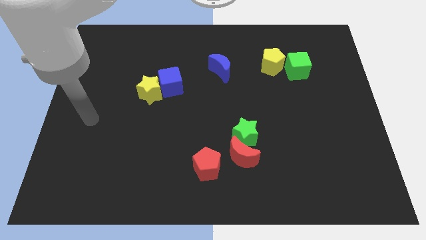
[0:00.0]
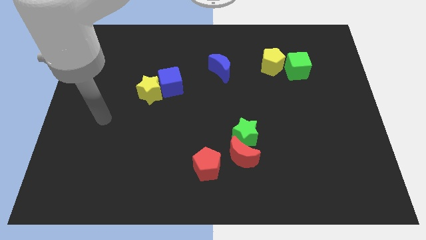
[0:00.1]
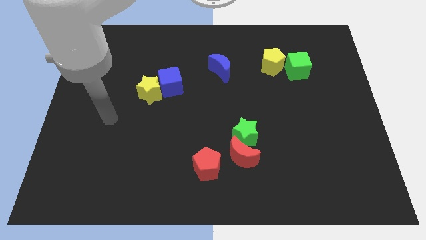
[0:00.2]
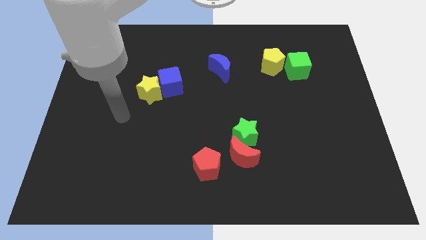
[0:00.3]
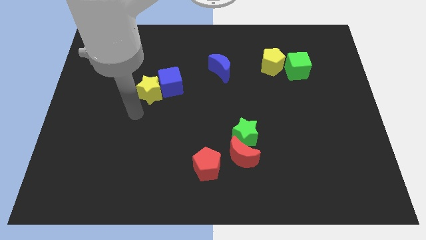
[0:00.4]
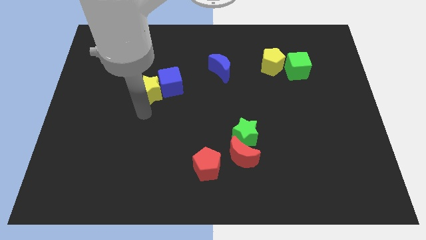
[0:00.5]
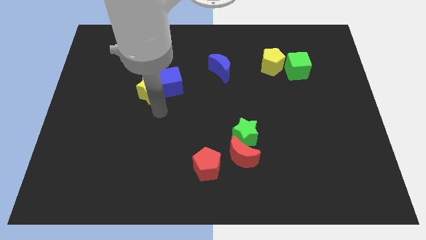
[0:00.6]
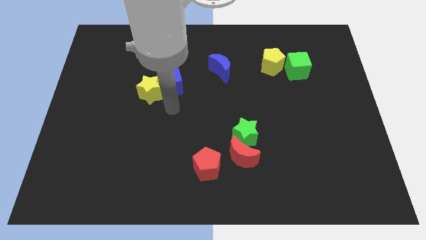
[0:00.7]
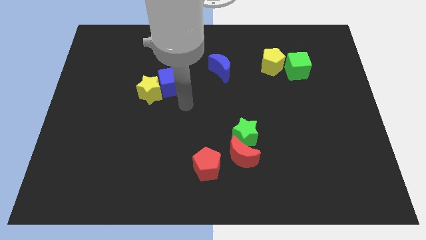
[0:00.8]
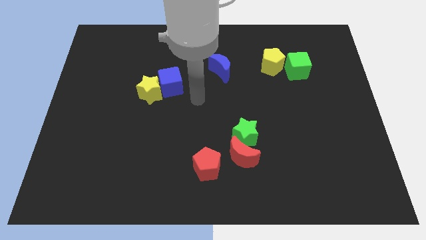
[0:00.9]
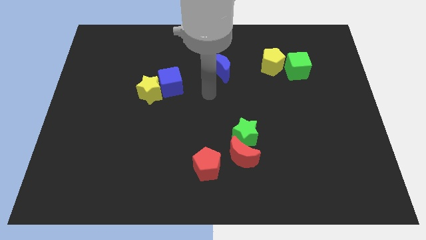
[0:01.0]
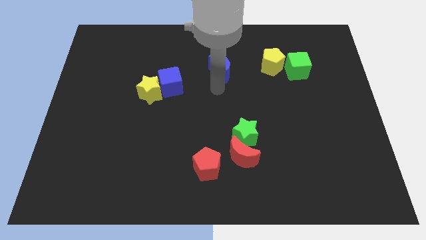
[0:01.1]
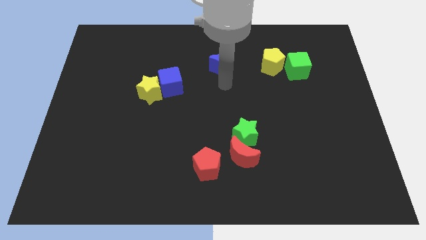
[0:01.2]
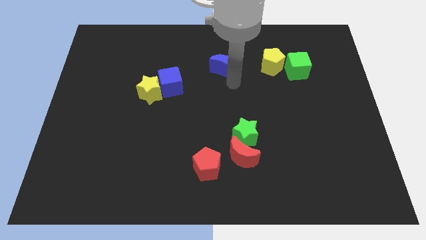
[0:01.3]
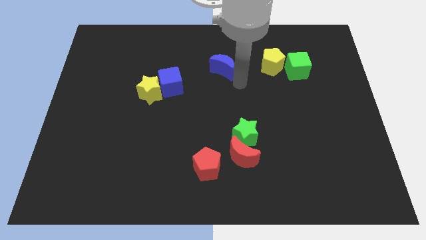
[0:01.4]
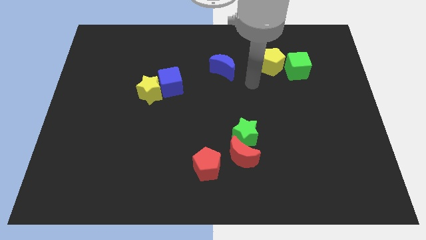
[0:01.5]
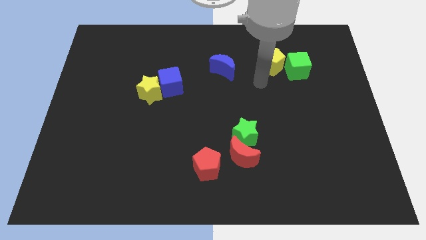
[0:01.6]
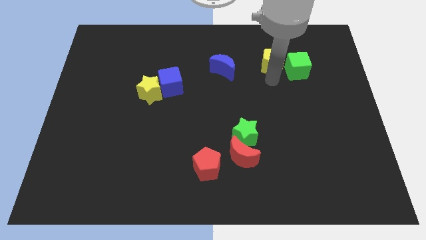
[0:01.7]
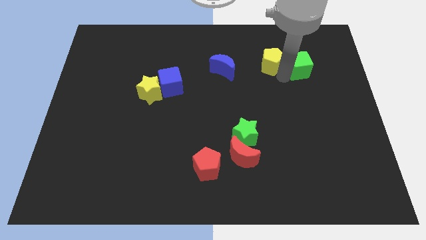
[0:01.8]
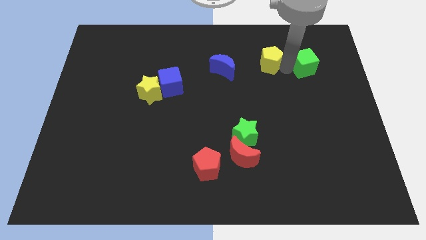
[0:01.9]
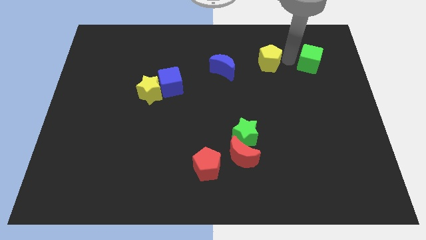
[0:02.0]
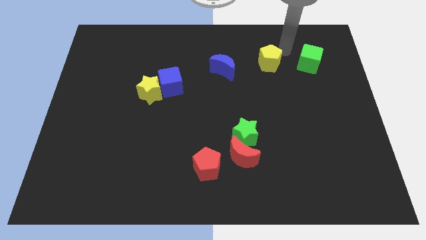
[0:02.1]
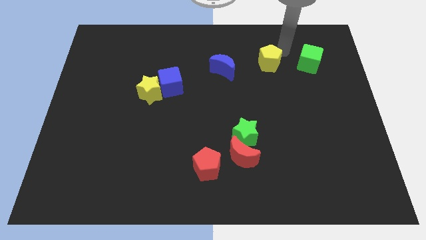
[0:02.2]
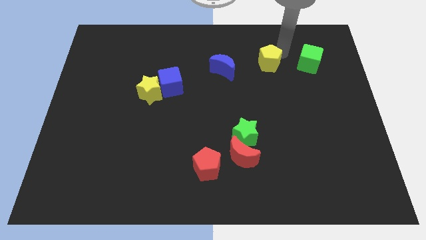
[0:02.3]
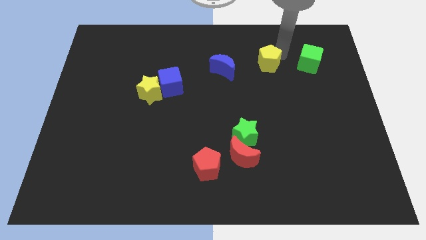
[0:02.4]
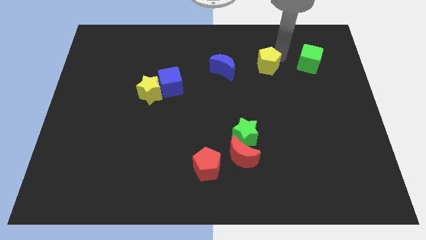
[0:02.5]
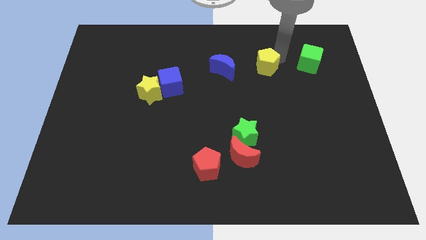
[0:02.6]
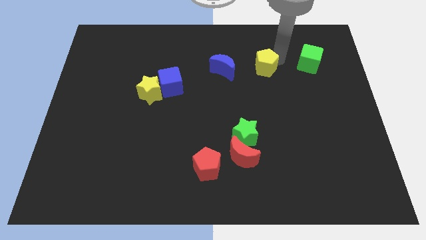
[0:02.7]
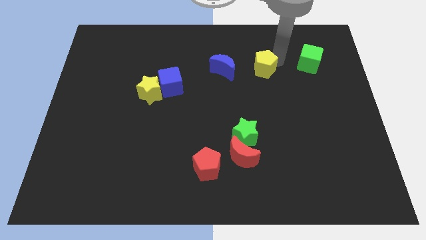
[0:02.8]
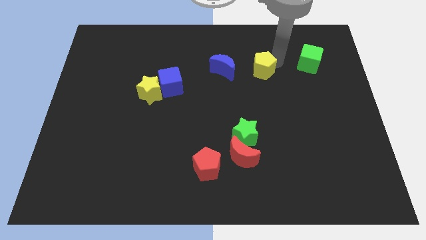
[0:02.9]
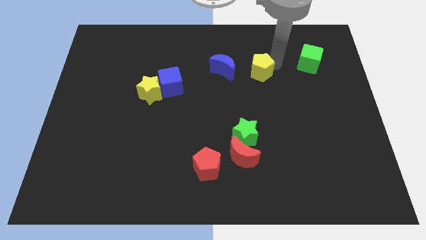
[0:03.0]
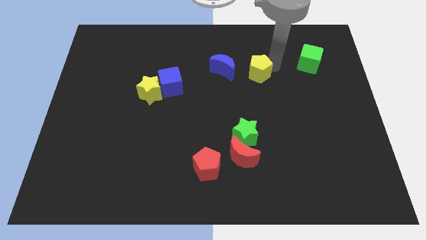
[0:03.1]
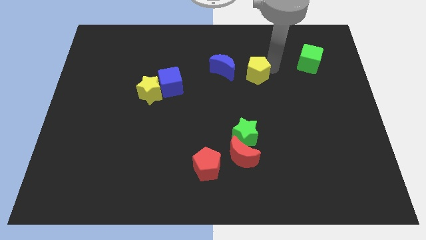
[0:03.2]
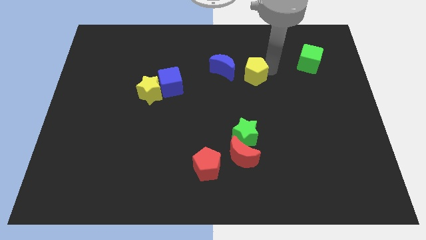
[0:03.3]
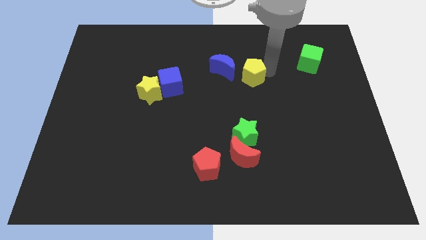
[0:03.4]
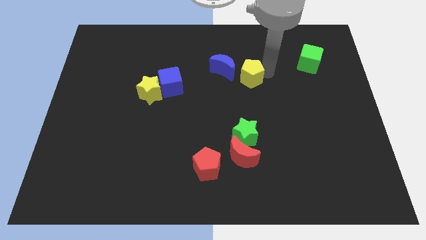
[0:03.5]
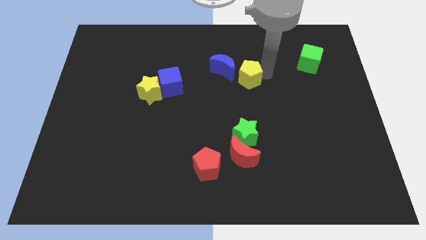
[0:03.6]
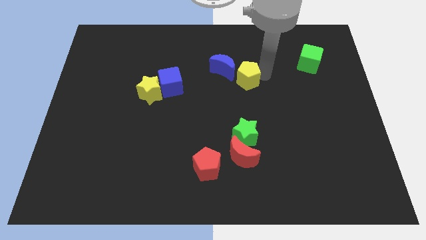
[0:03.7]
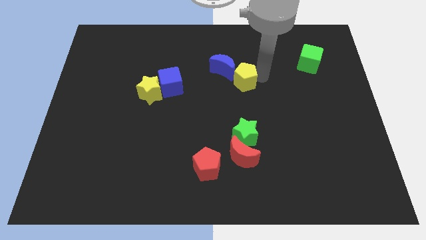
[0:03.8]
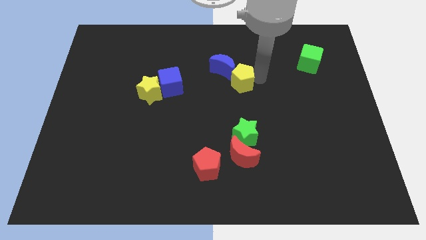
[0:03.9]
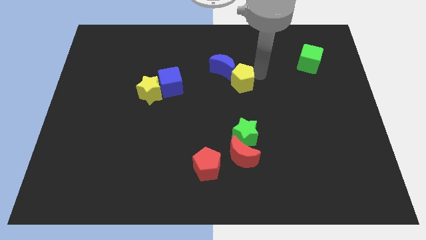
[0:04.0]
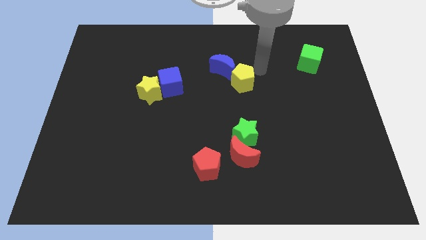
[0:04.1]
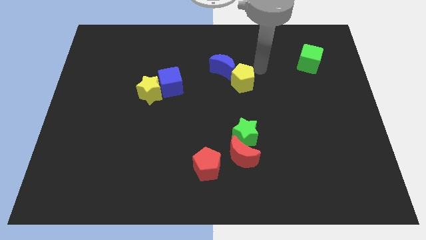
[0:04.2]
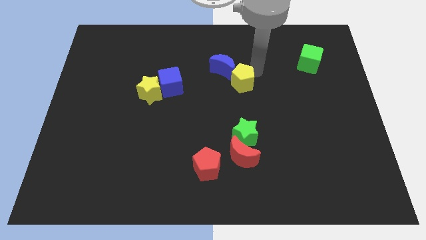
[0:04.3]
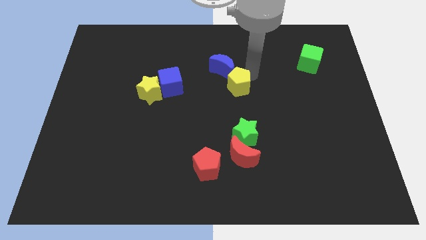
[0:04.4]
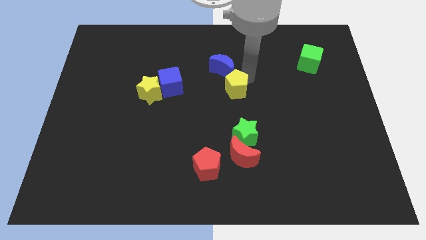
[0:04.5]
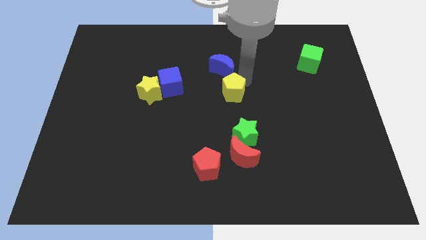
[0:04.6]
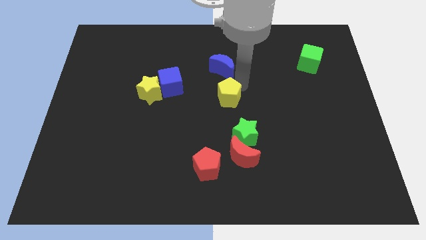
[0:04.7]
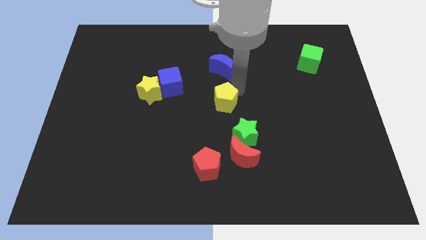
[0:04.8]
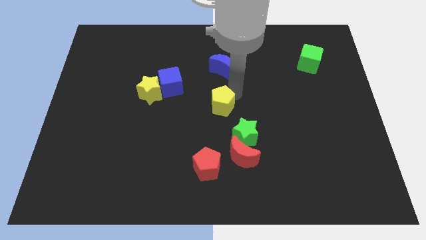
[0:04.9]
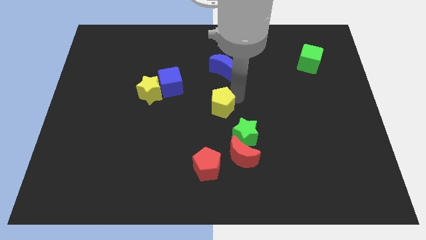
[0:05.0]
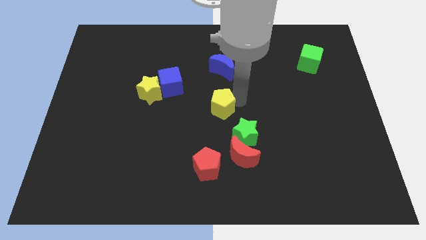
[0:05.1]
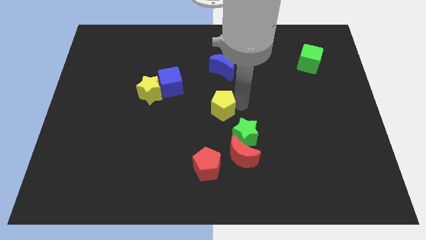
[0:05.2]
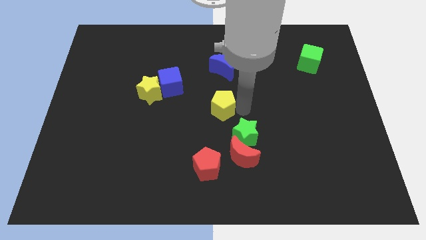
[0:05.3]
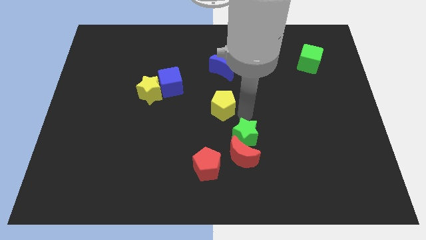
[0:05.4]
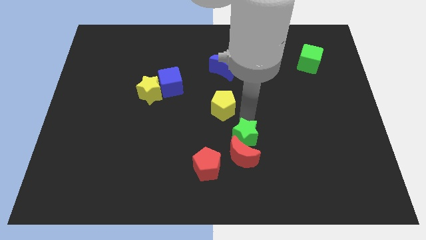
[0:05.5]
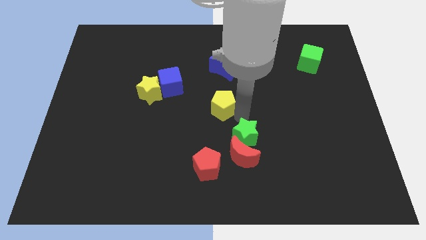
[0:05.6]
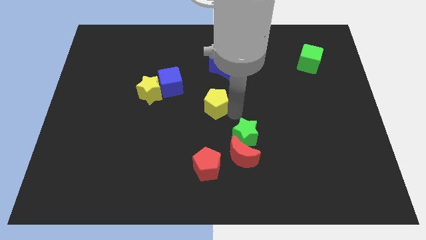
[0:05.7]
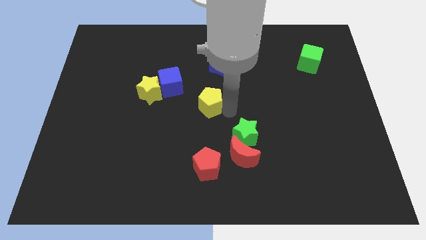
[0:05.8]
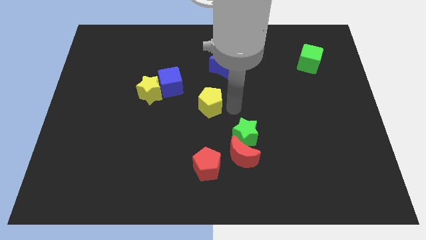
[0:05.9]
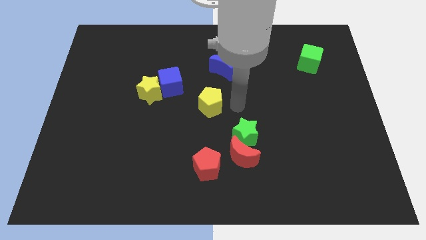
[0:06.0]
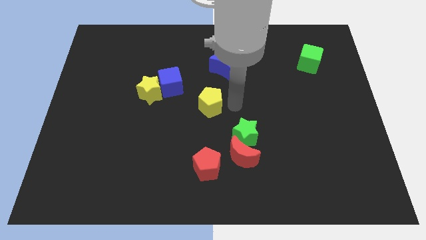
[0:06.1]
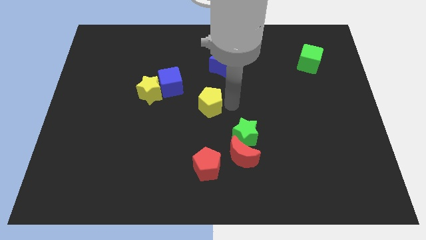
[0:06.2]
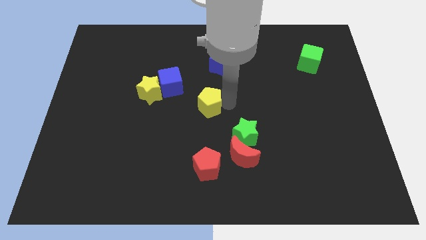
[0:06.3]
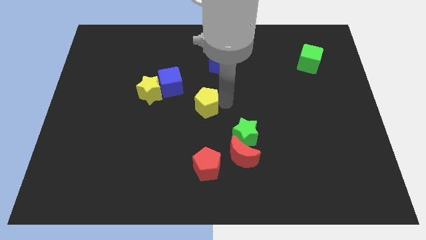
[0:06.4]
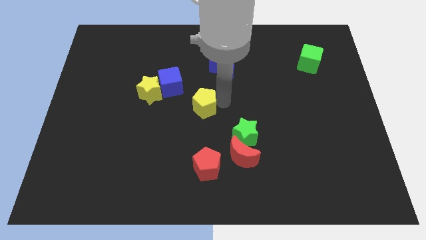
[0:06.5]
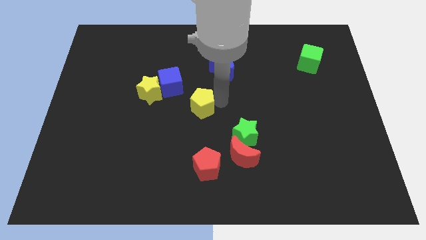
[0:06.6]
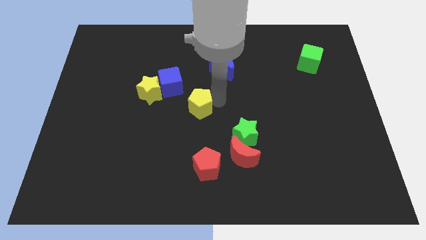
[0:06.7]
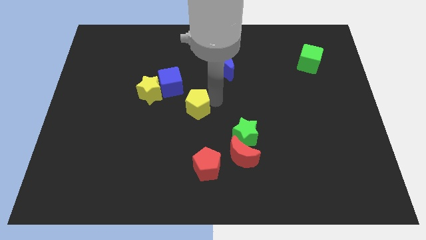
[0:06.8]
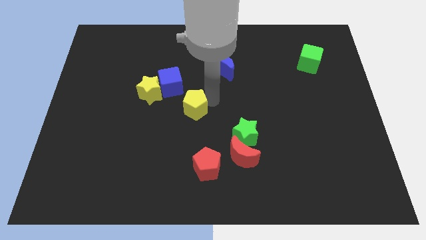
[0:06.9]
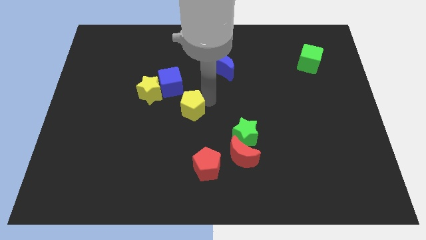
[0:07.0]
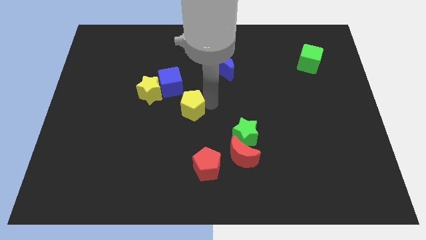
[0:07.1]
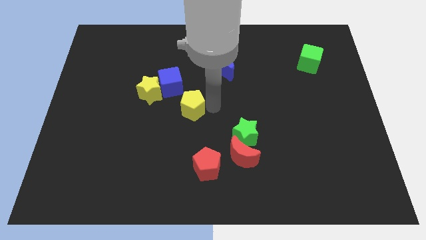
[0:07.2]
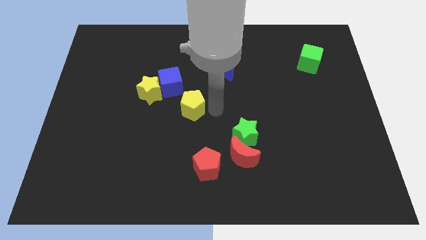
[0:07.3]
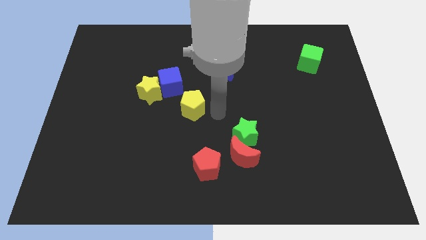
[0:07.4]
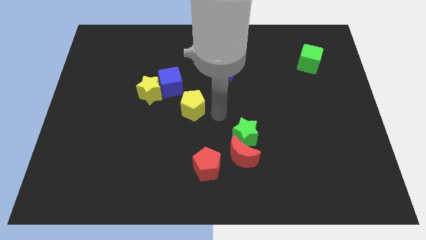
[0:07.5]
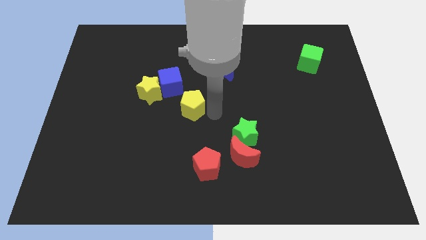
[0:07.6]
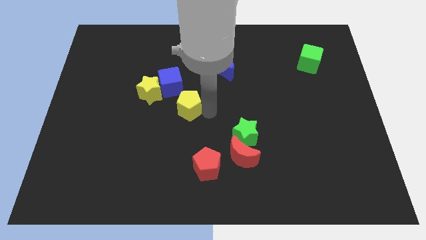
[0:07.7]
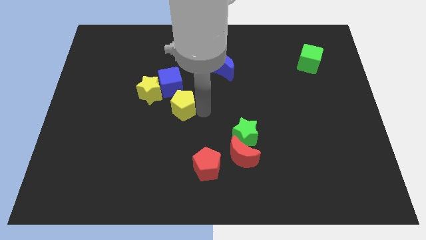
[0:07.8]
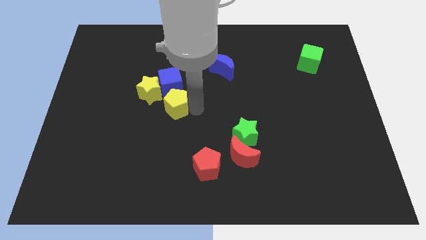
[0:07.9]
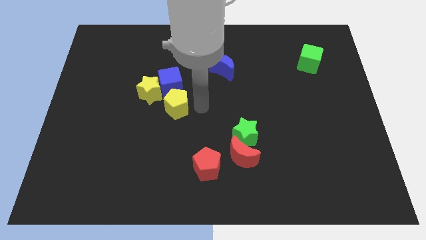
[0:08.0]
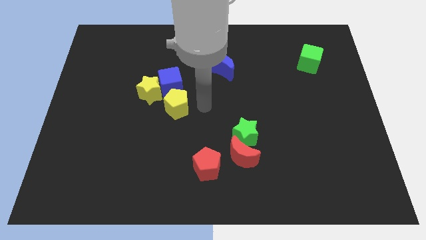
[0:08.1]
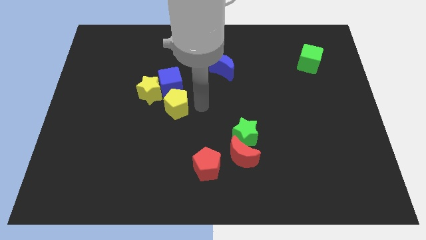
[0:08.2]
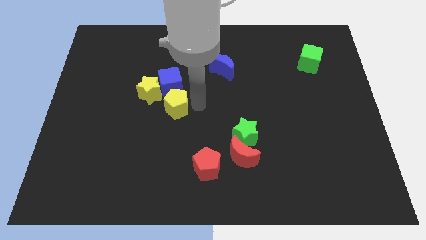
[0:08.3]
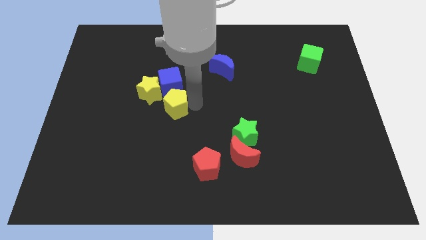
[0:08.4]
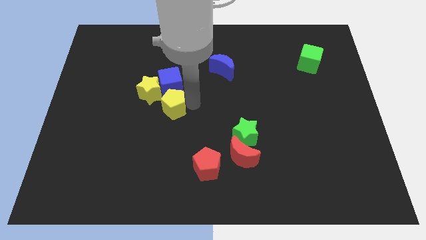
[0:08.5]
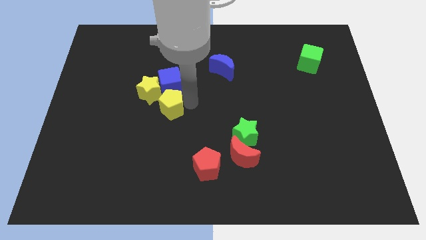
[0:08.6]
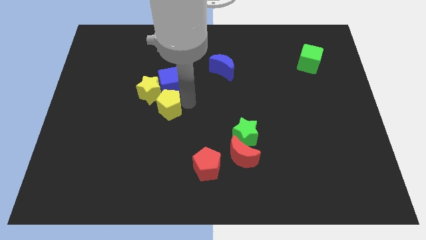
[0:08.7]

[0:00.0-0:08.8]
slide the yellow pentagon diagonally down and to the left of the blue cube
